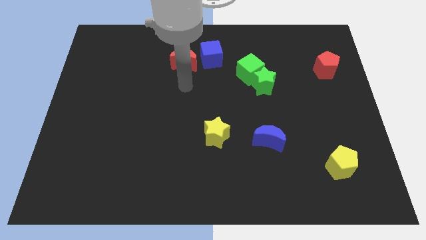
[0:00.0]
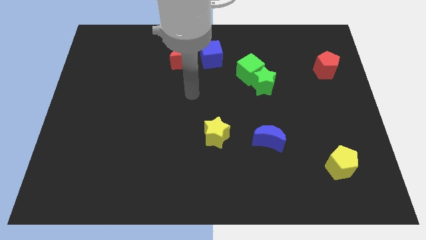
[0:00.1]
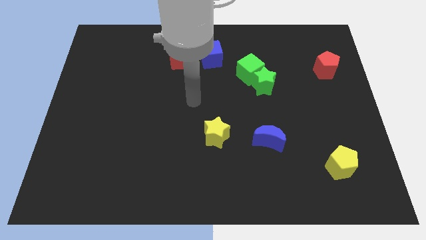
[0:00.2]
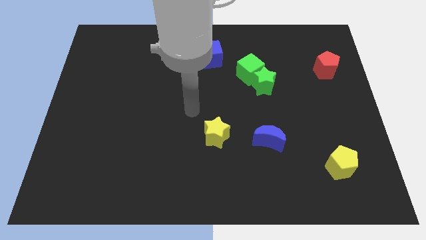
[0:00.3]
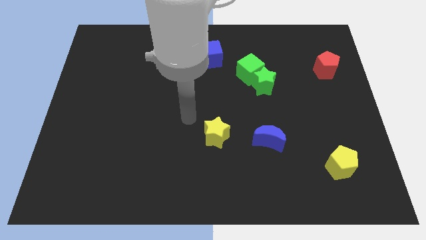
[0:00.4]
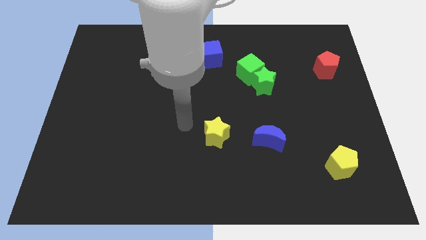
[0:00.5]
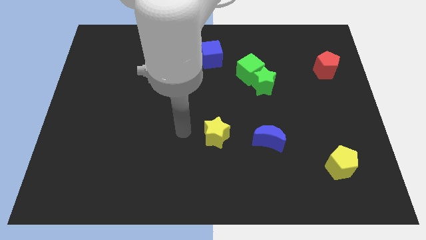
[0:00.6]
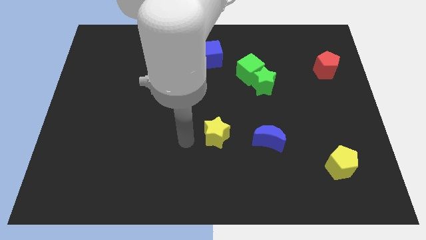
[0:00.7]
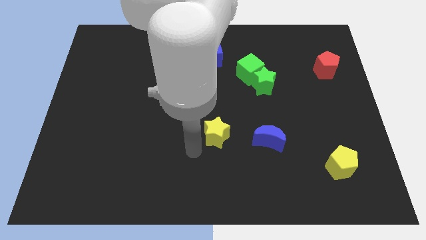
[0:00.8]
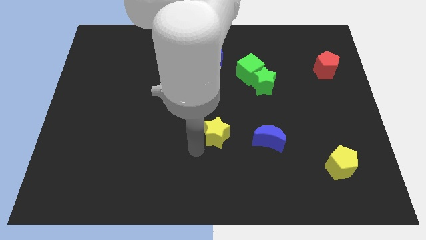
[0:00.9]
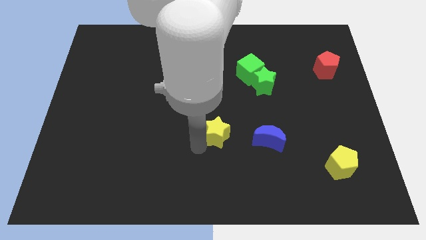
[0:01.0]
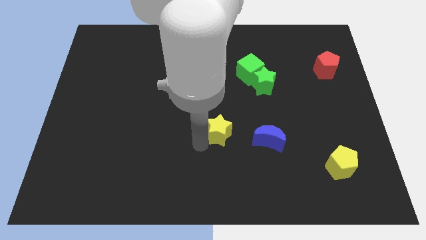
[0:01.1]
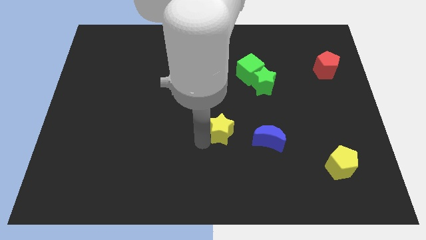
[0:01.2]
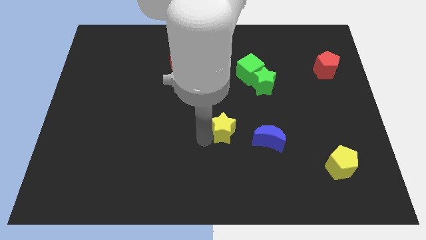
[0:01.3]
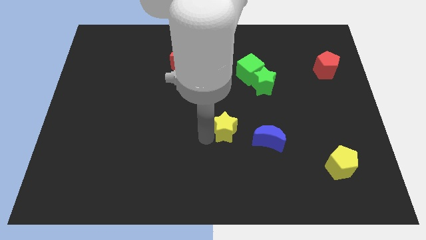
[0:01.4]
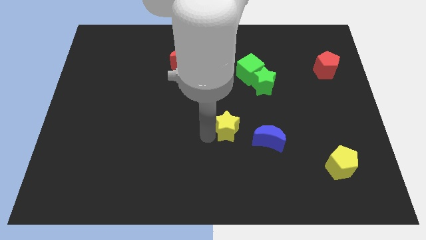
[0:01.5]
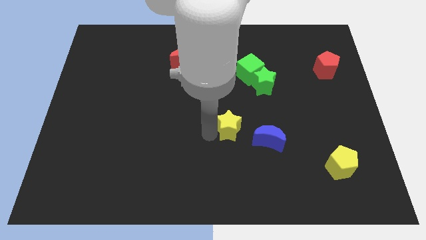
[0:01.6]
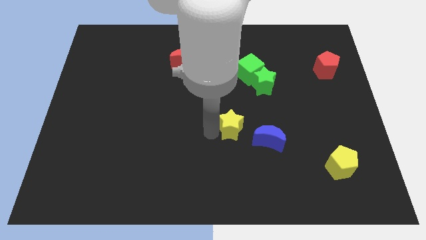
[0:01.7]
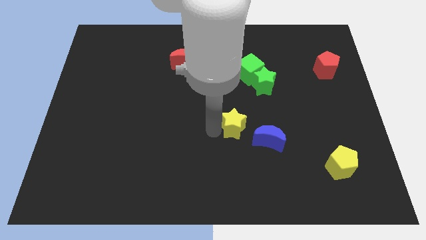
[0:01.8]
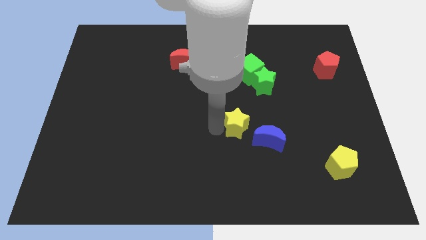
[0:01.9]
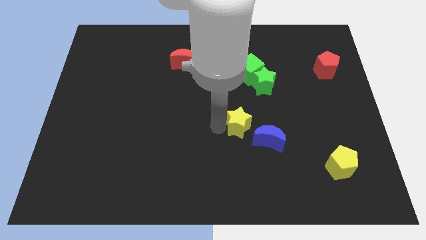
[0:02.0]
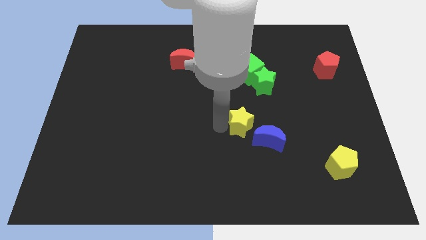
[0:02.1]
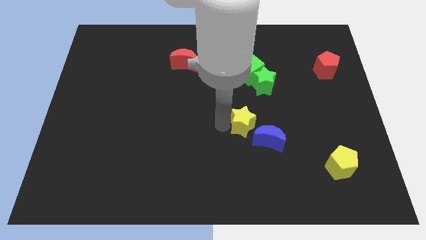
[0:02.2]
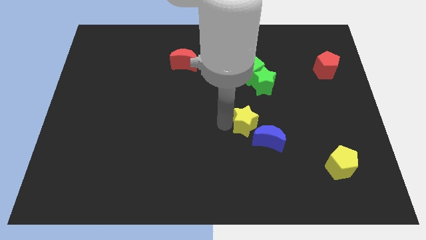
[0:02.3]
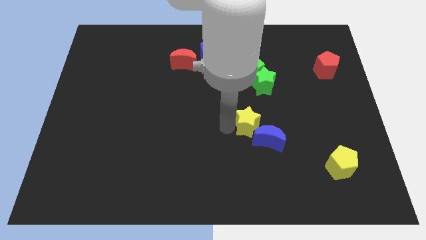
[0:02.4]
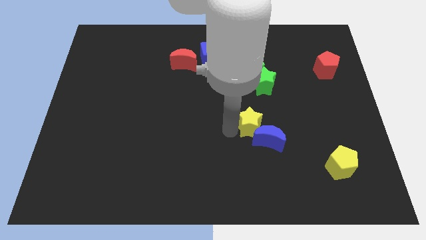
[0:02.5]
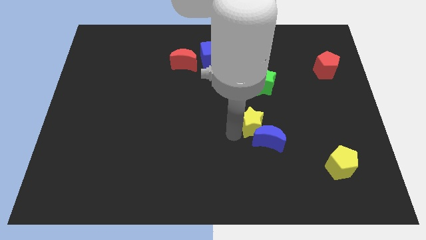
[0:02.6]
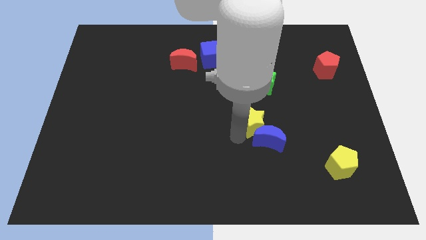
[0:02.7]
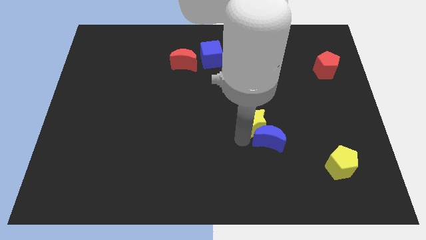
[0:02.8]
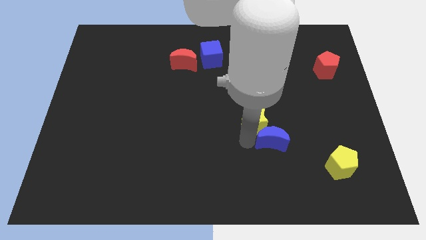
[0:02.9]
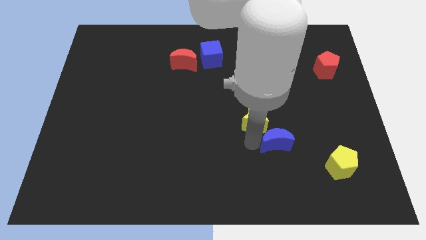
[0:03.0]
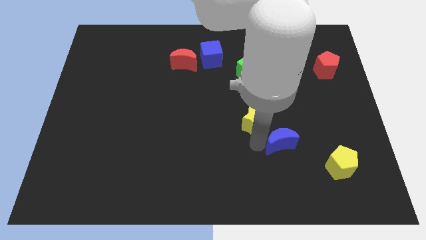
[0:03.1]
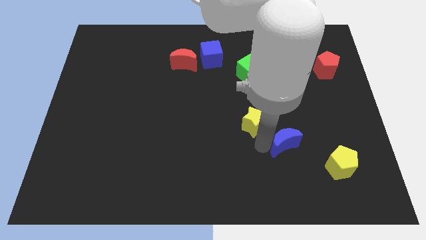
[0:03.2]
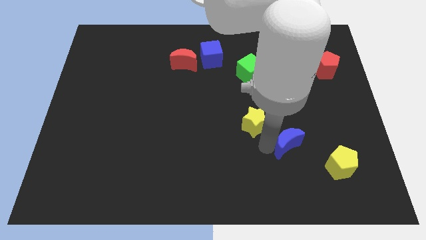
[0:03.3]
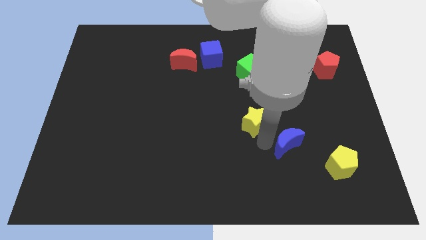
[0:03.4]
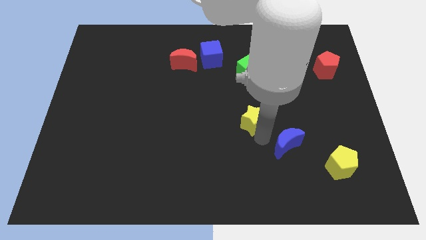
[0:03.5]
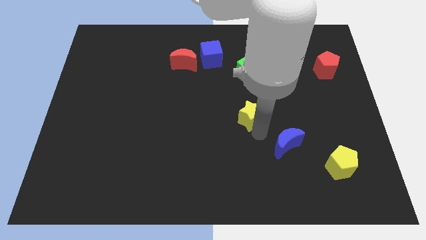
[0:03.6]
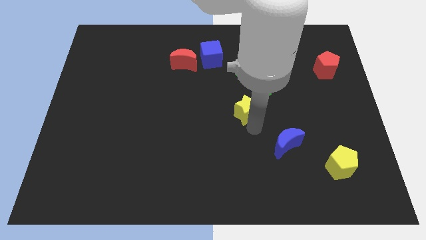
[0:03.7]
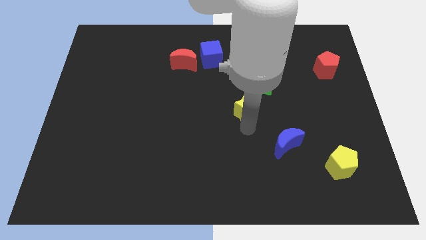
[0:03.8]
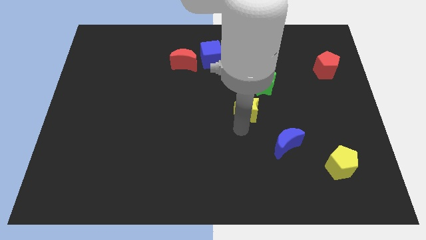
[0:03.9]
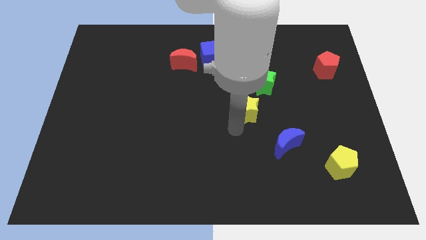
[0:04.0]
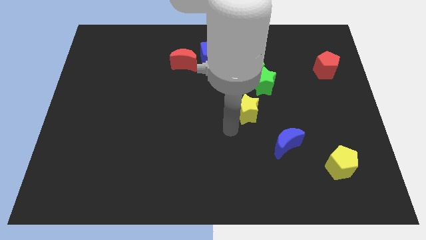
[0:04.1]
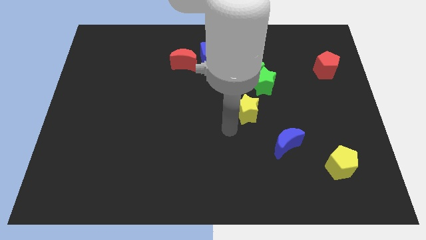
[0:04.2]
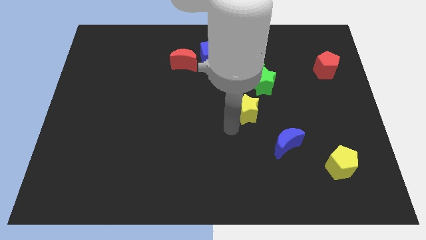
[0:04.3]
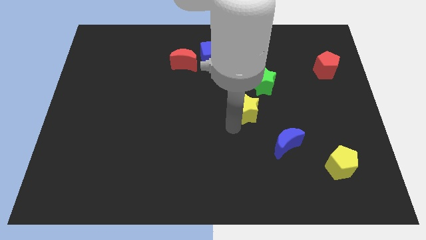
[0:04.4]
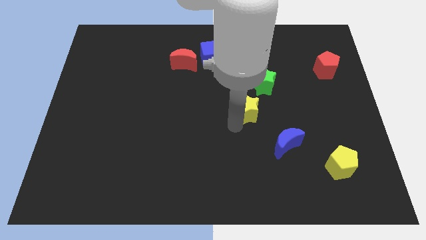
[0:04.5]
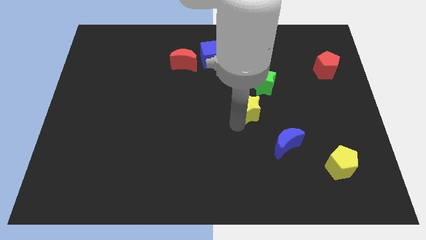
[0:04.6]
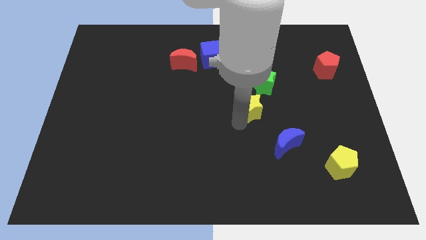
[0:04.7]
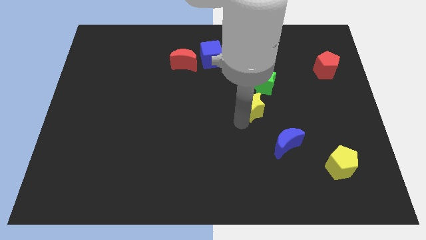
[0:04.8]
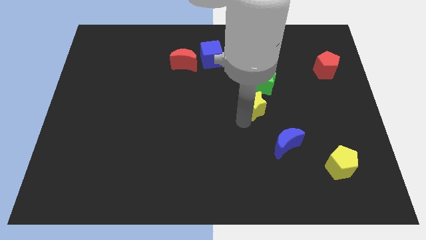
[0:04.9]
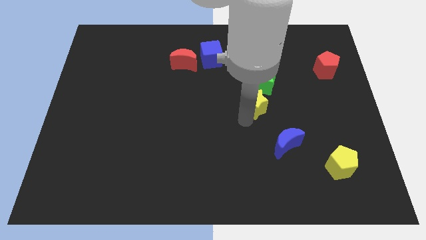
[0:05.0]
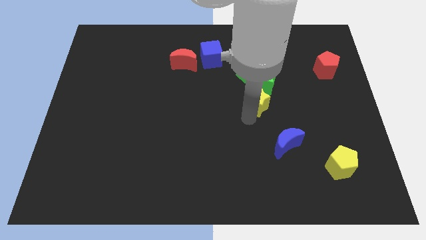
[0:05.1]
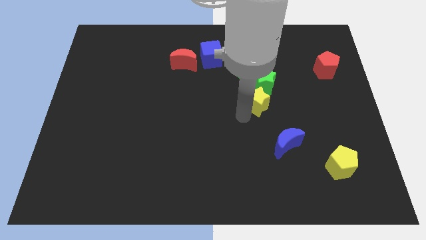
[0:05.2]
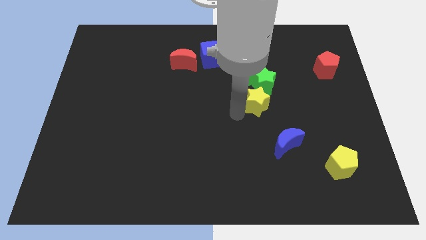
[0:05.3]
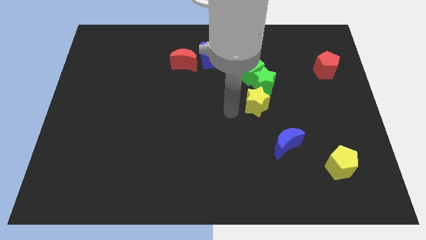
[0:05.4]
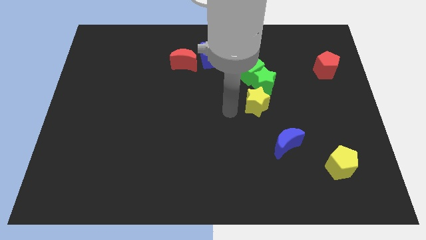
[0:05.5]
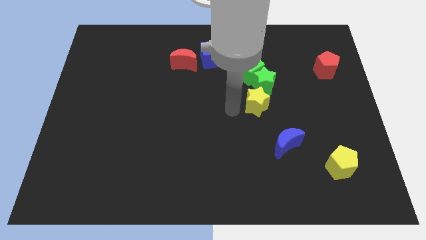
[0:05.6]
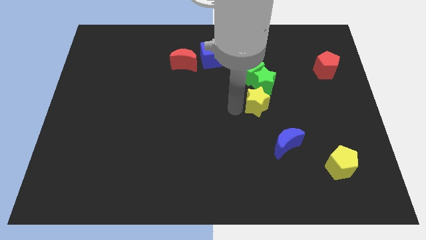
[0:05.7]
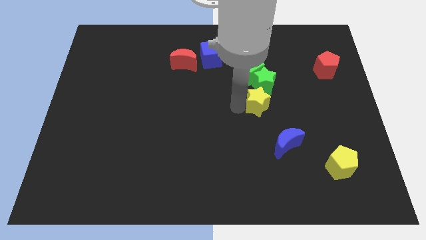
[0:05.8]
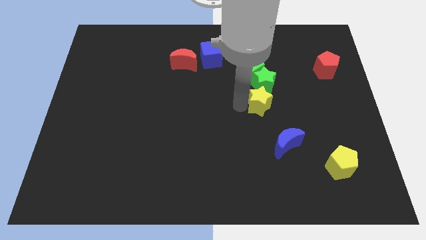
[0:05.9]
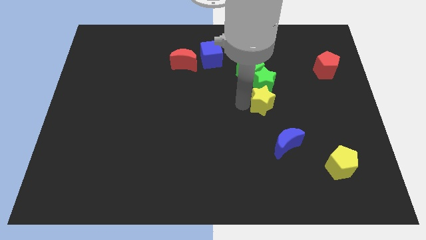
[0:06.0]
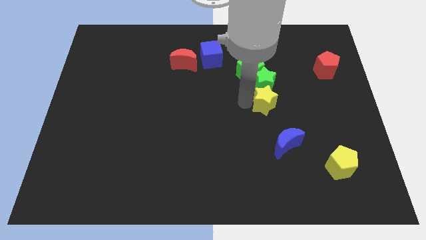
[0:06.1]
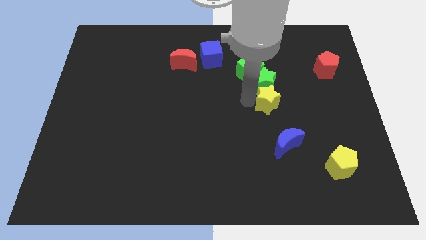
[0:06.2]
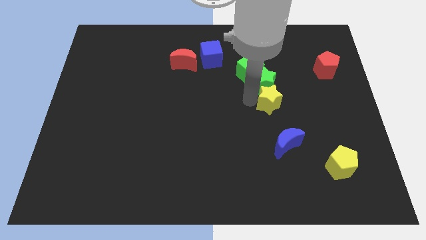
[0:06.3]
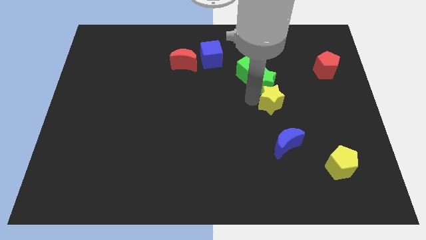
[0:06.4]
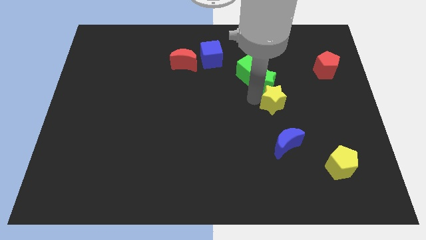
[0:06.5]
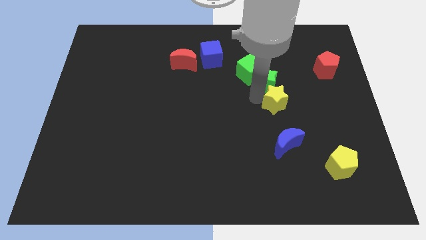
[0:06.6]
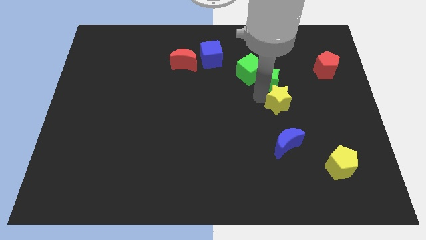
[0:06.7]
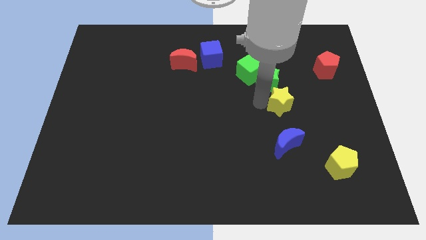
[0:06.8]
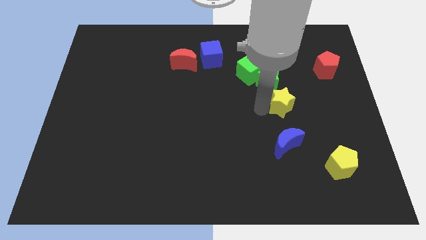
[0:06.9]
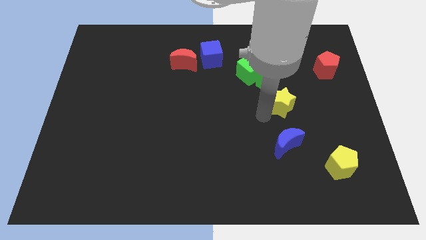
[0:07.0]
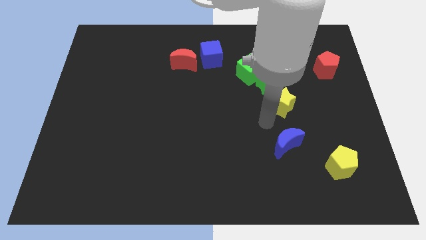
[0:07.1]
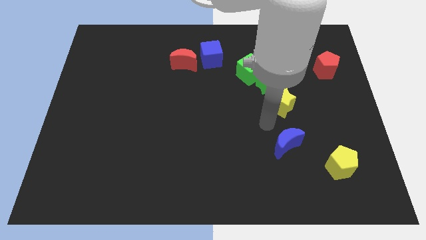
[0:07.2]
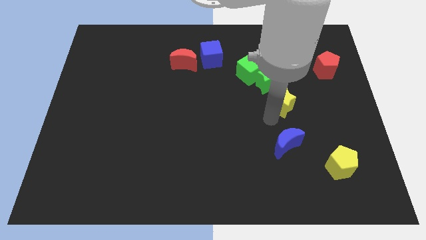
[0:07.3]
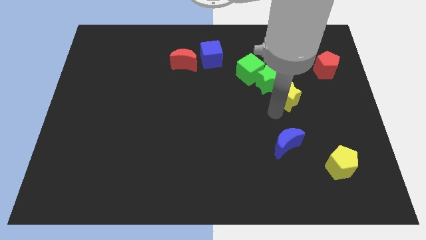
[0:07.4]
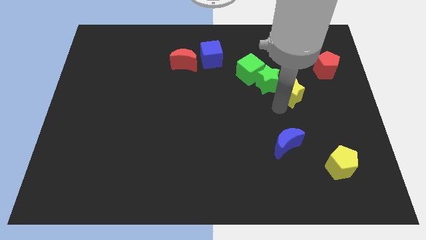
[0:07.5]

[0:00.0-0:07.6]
push the yellow star diagonally up and right

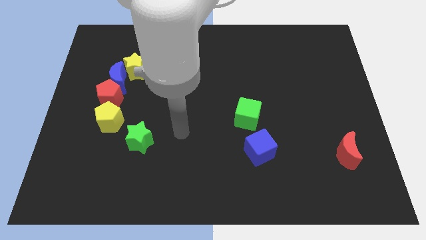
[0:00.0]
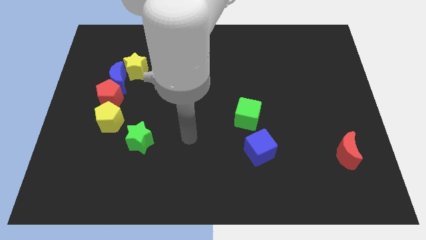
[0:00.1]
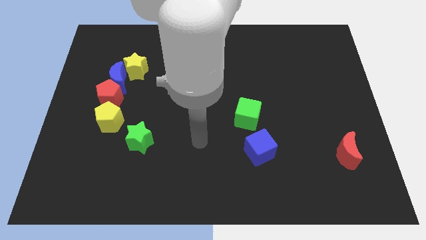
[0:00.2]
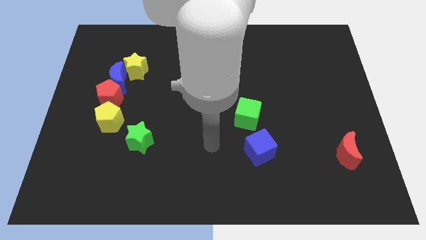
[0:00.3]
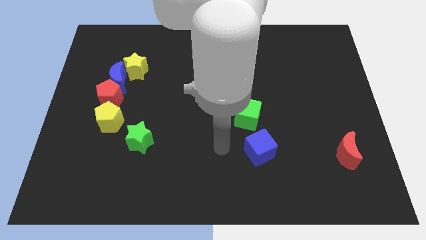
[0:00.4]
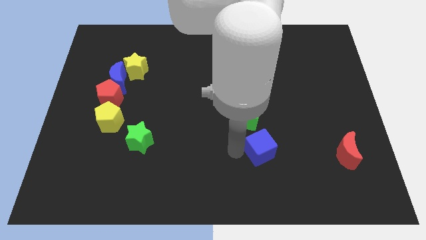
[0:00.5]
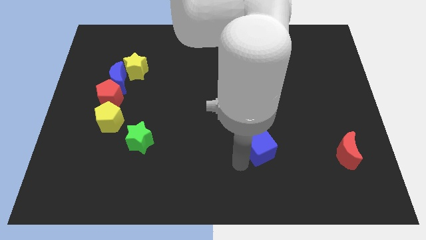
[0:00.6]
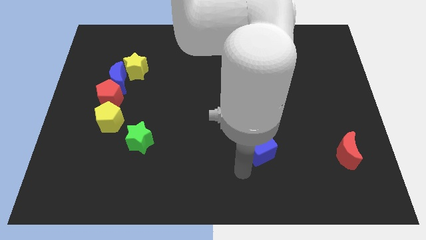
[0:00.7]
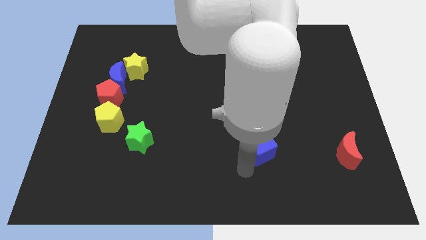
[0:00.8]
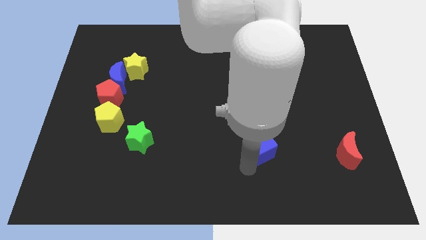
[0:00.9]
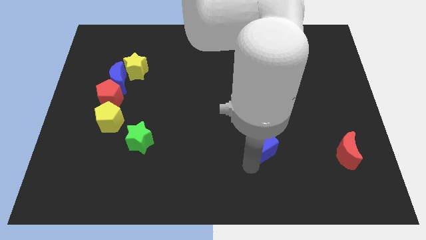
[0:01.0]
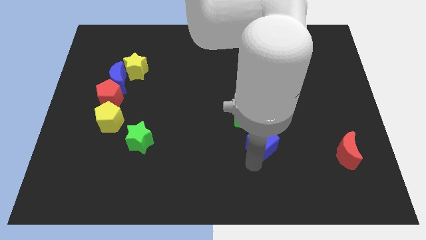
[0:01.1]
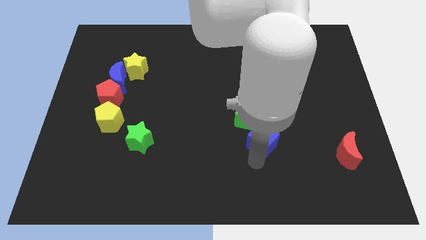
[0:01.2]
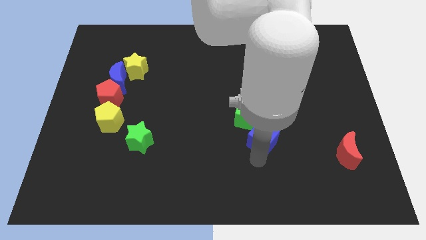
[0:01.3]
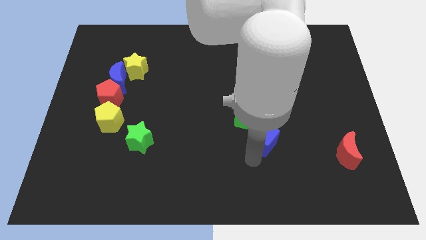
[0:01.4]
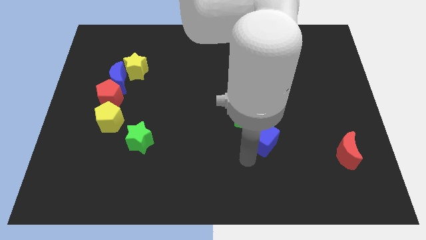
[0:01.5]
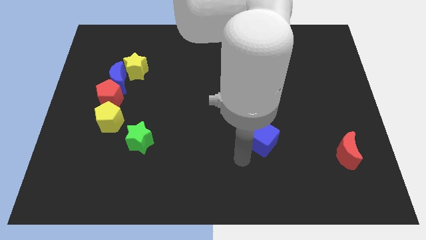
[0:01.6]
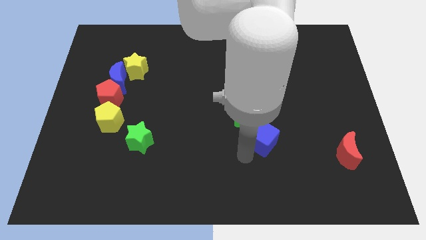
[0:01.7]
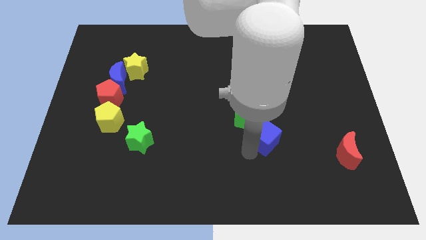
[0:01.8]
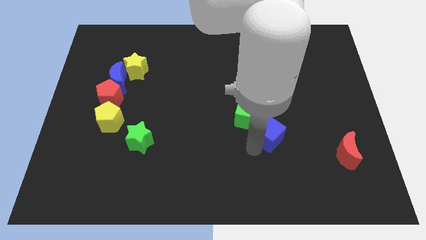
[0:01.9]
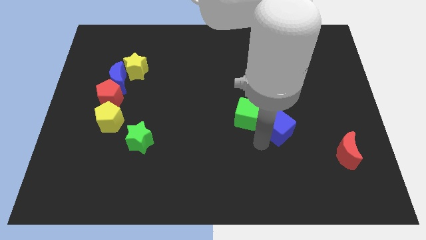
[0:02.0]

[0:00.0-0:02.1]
push the blue cube up and then to the right a bit
